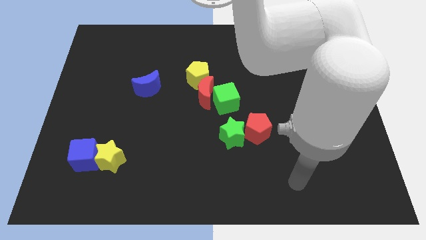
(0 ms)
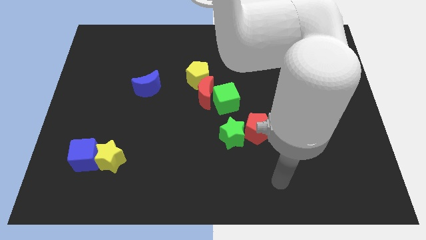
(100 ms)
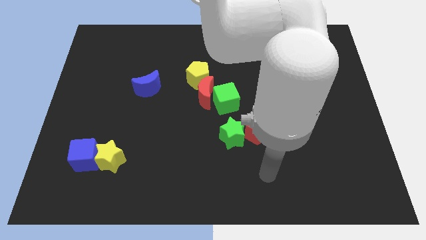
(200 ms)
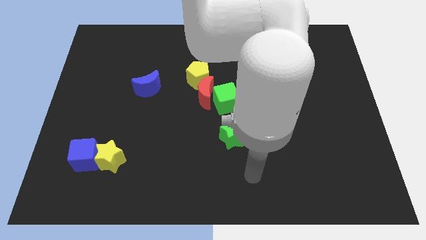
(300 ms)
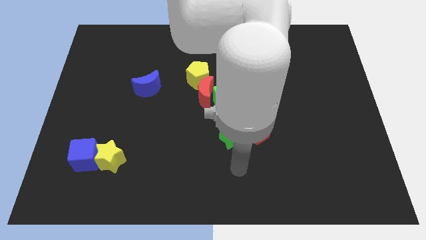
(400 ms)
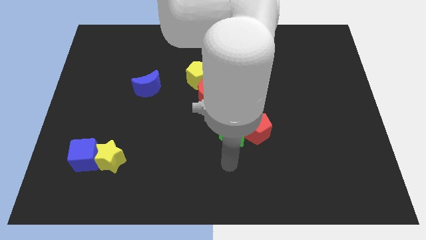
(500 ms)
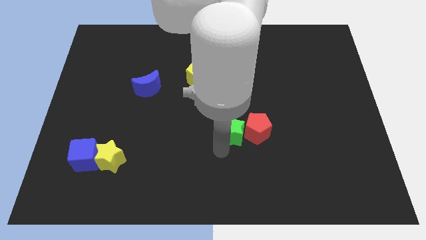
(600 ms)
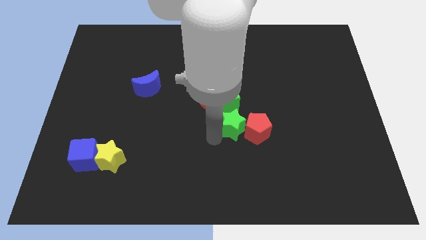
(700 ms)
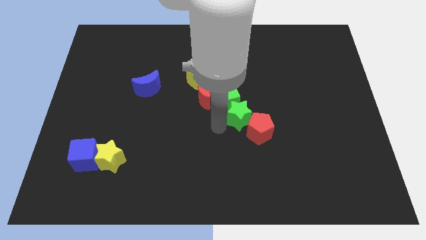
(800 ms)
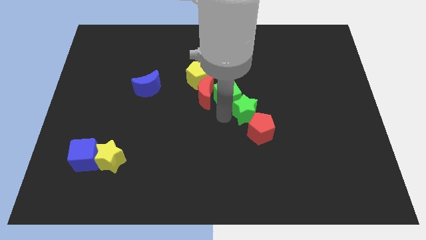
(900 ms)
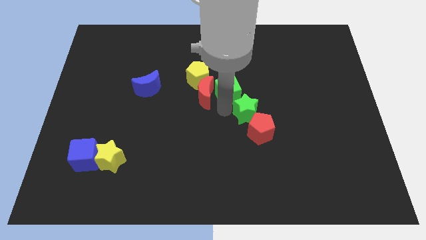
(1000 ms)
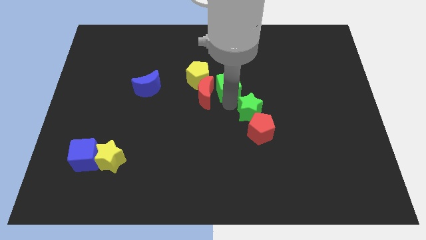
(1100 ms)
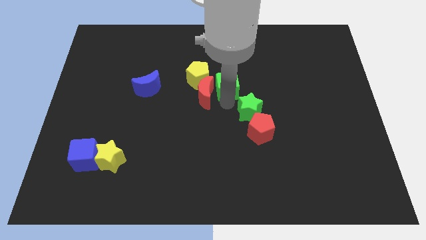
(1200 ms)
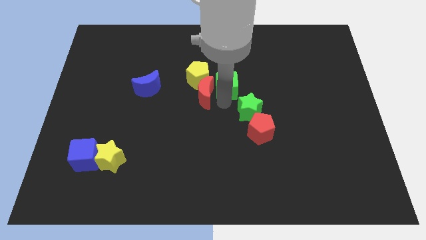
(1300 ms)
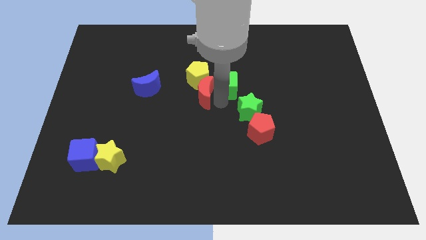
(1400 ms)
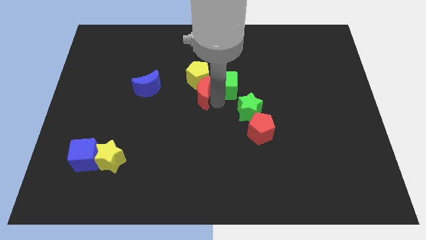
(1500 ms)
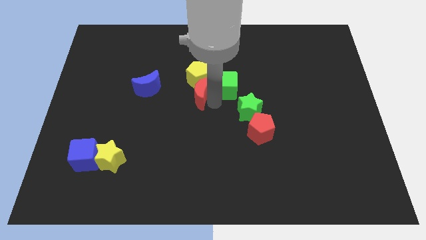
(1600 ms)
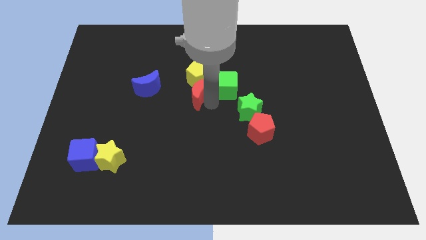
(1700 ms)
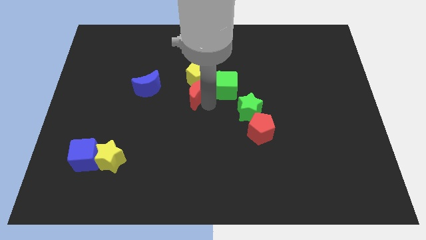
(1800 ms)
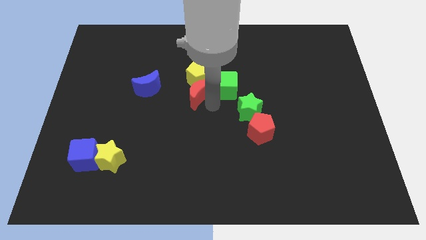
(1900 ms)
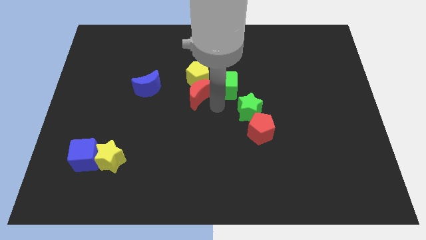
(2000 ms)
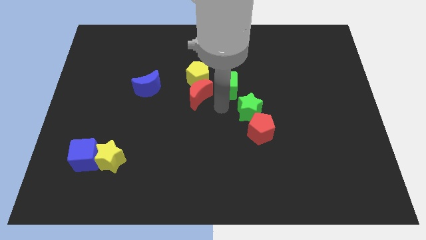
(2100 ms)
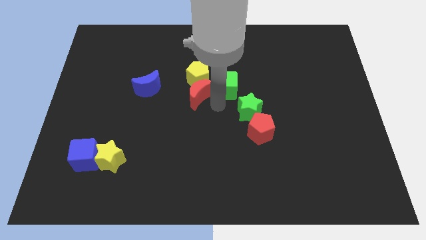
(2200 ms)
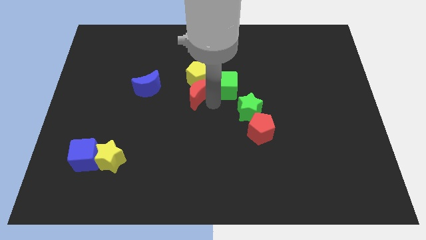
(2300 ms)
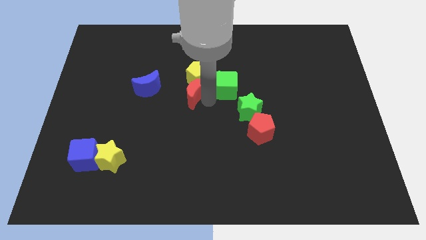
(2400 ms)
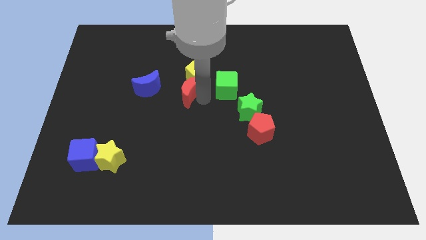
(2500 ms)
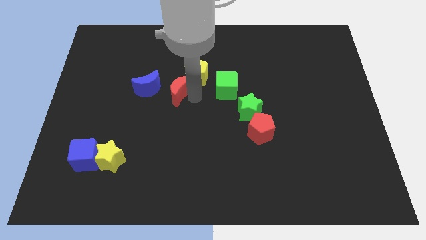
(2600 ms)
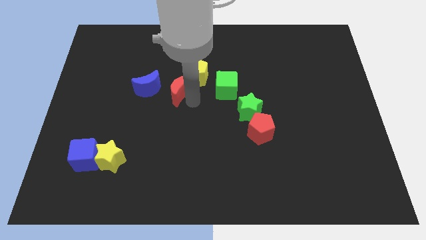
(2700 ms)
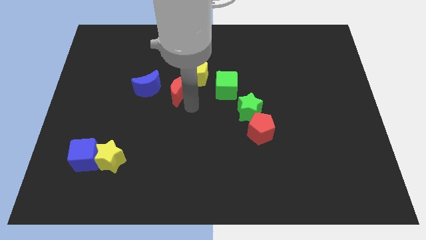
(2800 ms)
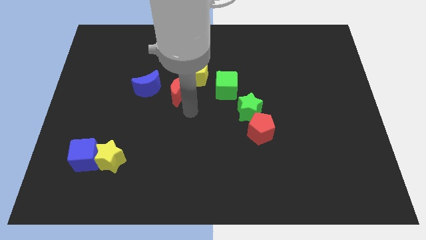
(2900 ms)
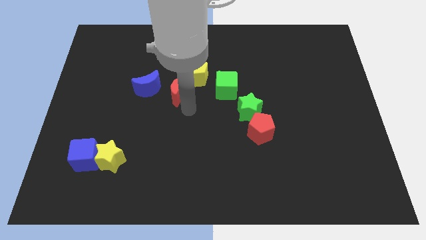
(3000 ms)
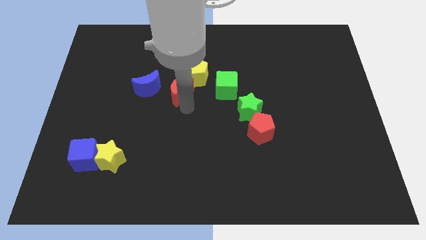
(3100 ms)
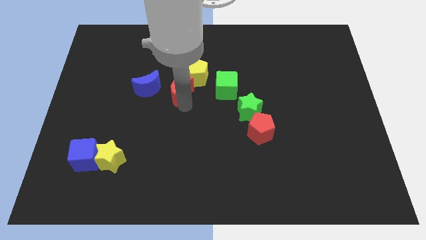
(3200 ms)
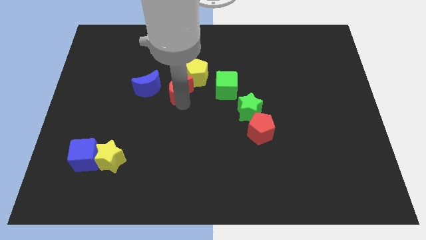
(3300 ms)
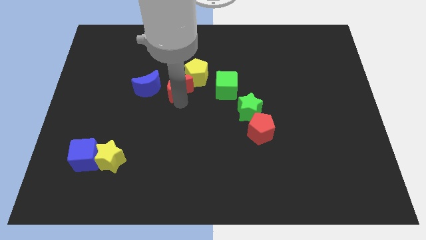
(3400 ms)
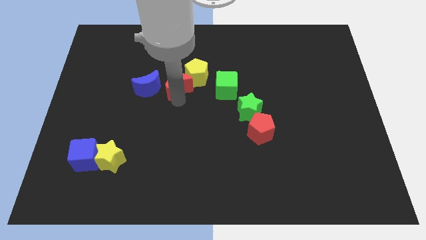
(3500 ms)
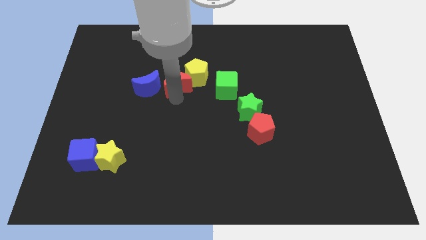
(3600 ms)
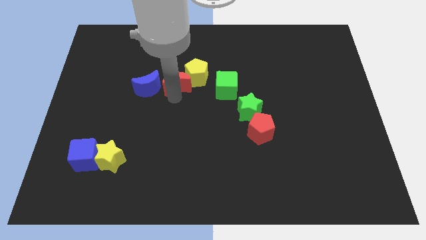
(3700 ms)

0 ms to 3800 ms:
slide the red moon upwards and to the left diagonally a little bit

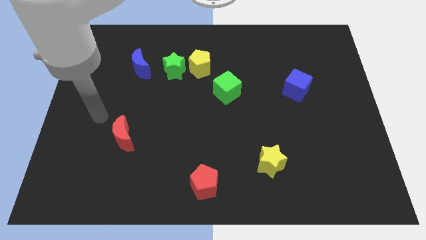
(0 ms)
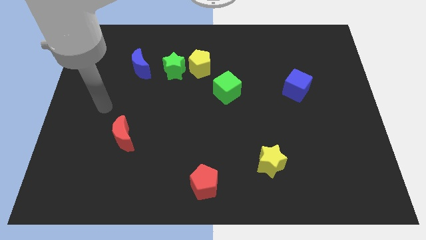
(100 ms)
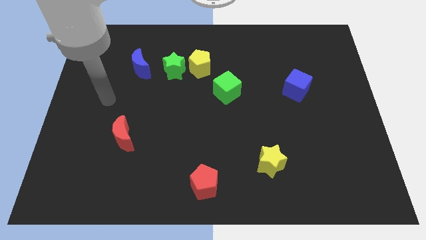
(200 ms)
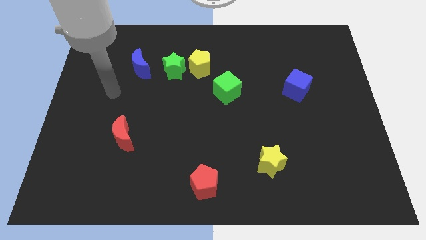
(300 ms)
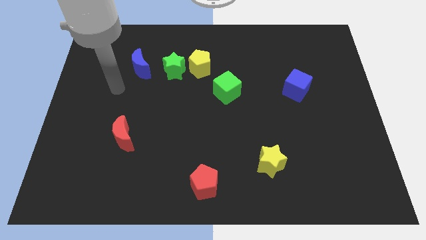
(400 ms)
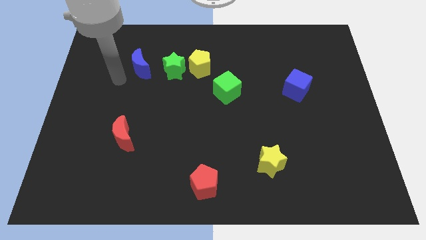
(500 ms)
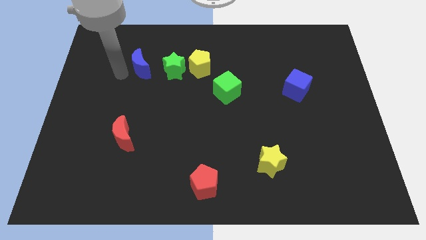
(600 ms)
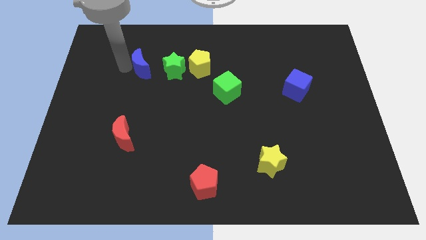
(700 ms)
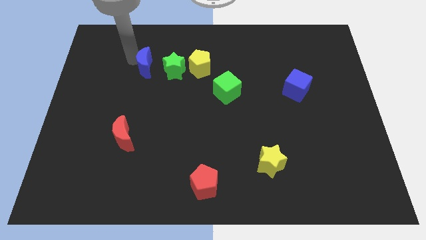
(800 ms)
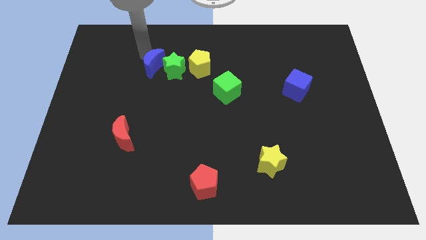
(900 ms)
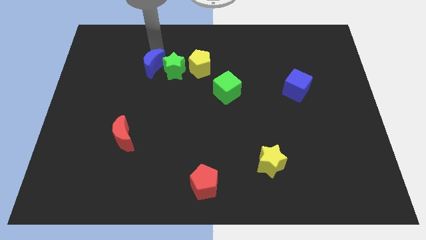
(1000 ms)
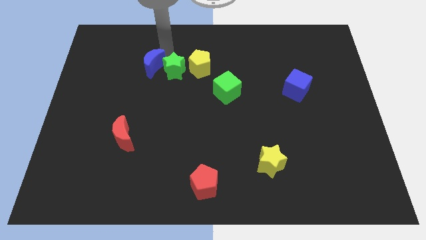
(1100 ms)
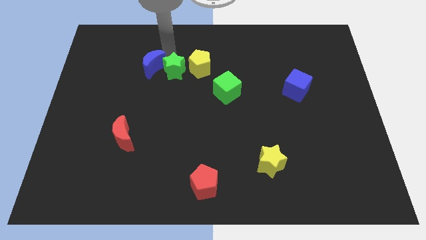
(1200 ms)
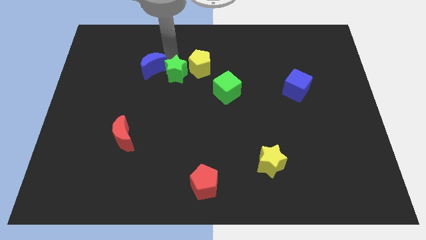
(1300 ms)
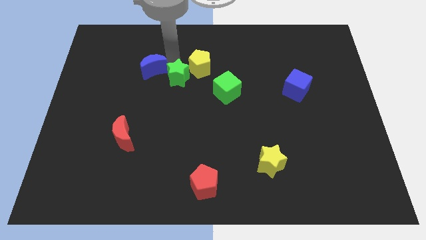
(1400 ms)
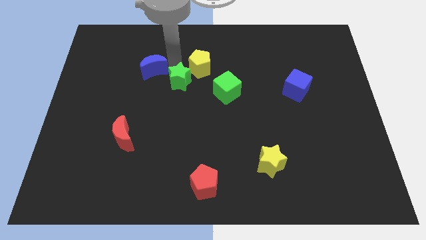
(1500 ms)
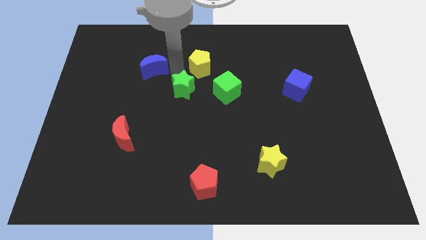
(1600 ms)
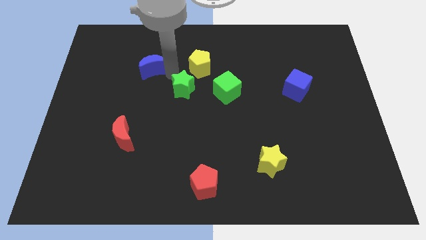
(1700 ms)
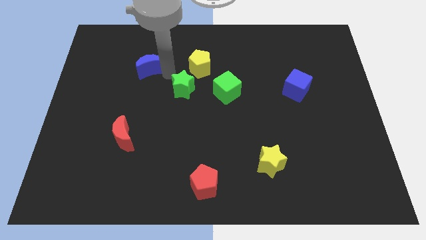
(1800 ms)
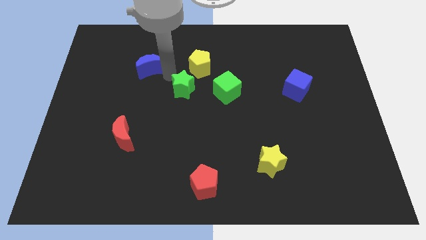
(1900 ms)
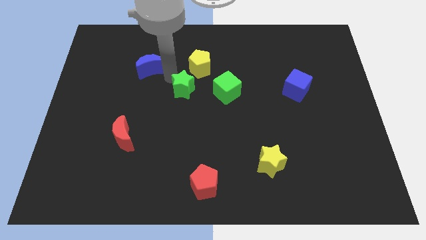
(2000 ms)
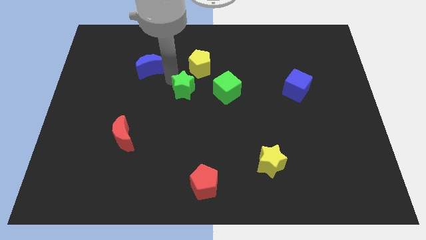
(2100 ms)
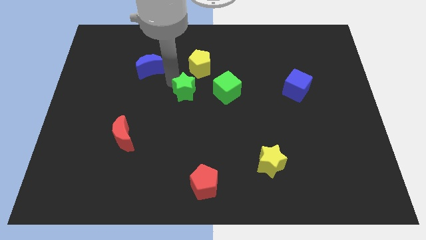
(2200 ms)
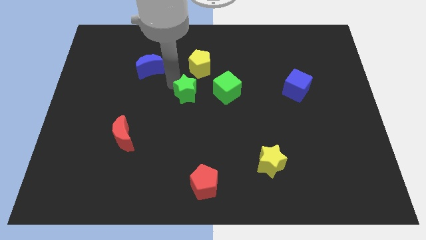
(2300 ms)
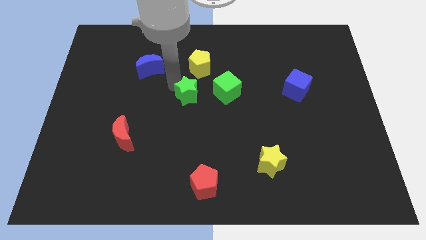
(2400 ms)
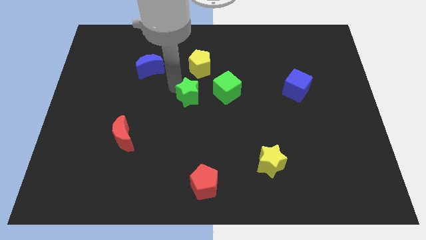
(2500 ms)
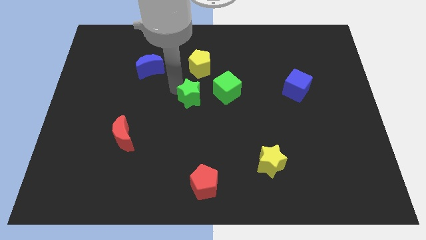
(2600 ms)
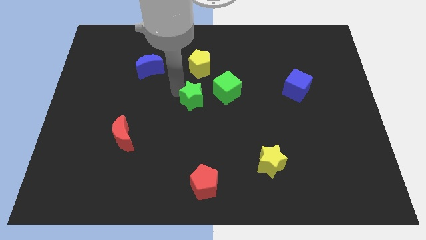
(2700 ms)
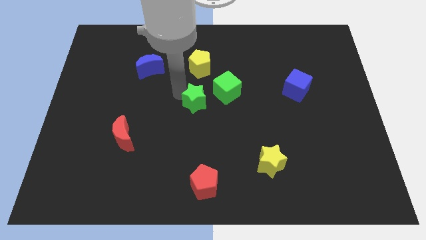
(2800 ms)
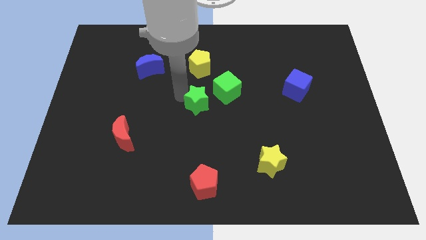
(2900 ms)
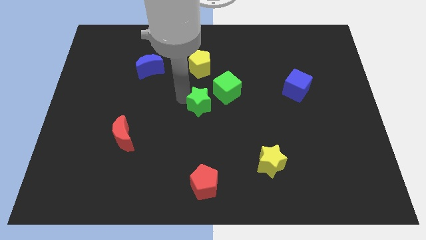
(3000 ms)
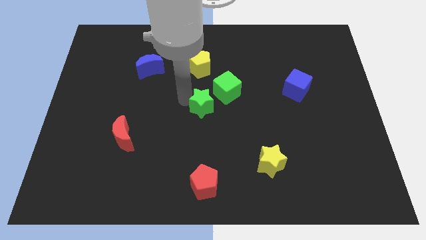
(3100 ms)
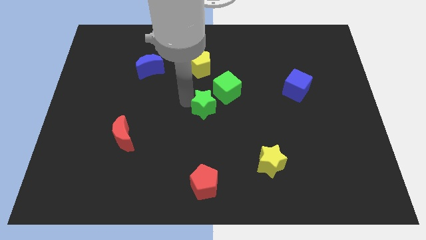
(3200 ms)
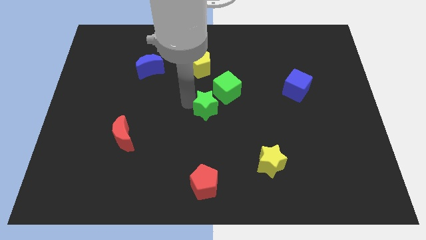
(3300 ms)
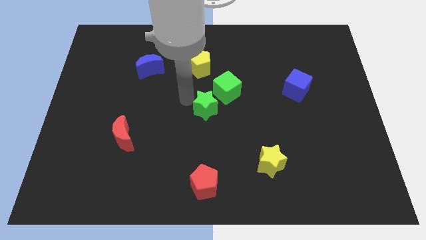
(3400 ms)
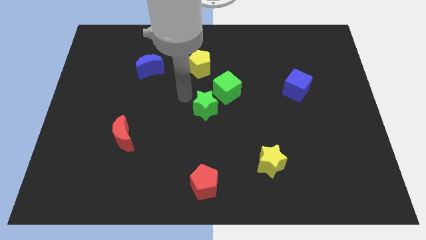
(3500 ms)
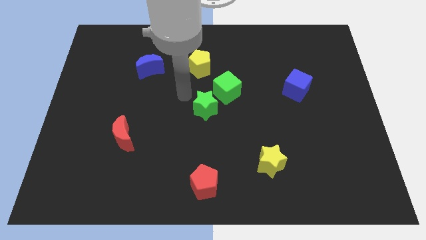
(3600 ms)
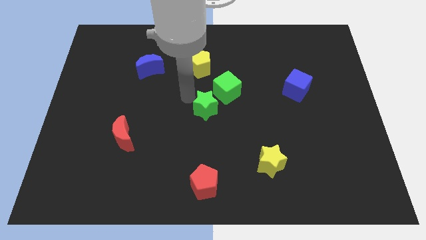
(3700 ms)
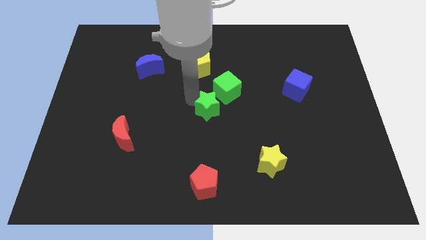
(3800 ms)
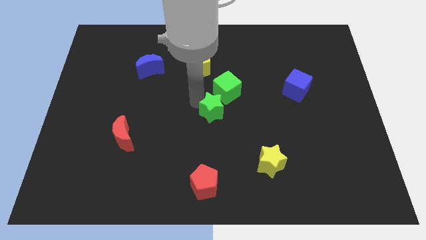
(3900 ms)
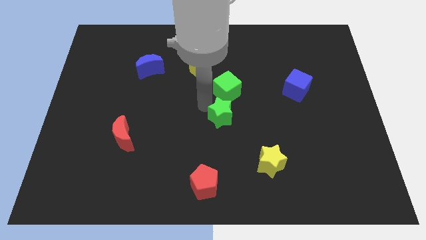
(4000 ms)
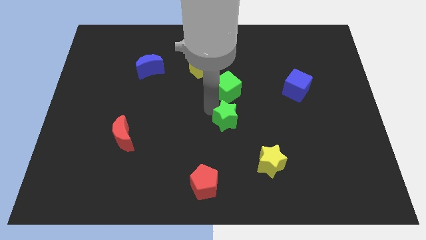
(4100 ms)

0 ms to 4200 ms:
slide the green star down and to the right
